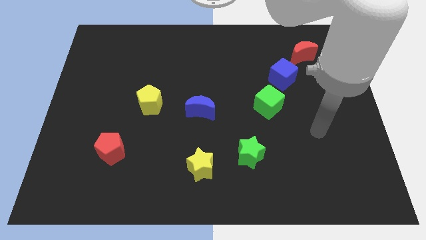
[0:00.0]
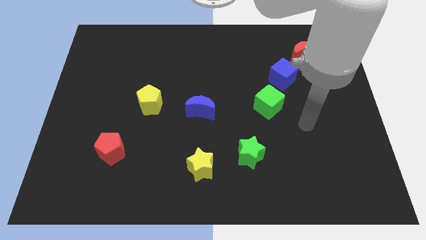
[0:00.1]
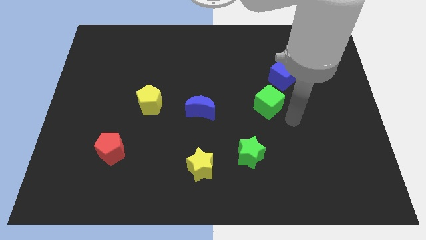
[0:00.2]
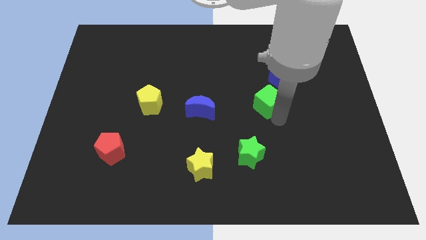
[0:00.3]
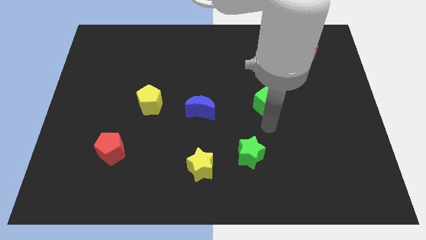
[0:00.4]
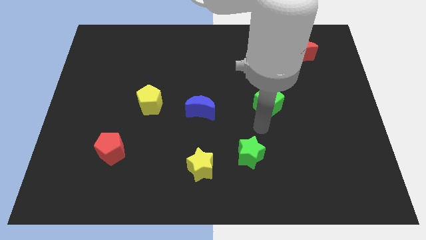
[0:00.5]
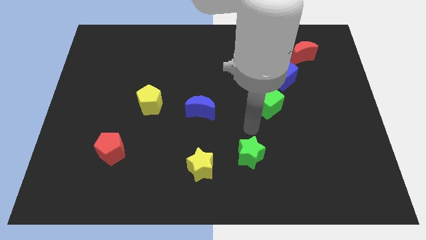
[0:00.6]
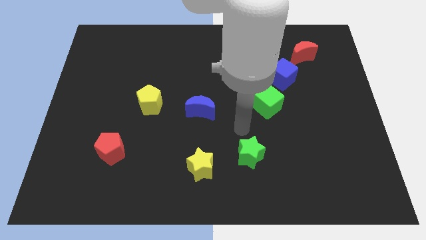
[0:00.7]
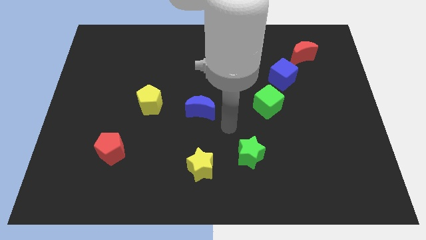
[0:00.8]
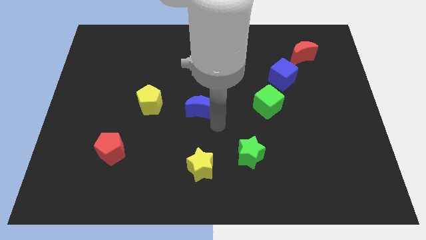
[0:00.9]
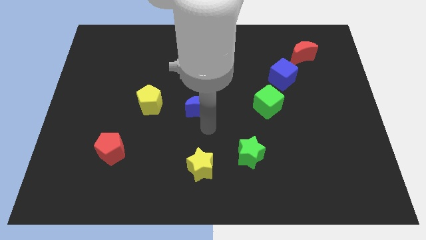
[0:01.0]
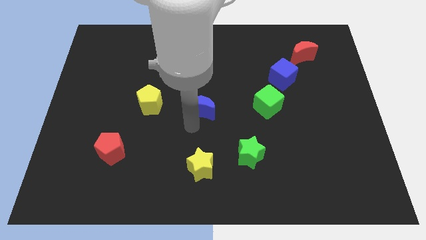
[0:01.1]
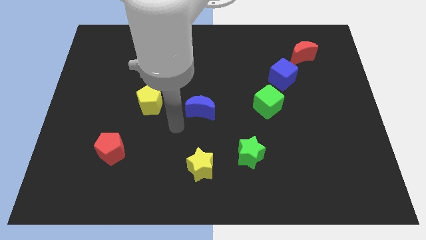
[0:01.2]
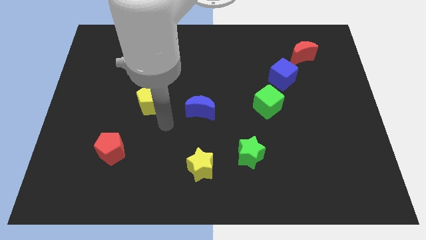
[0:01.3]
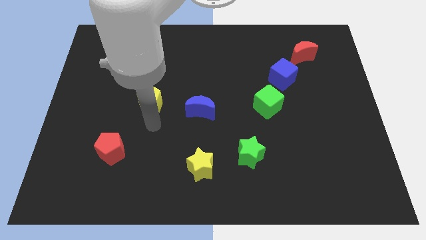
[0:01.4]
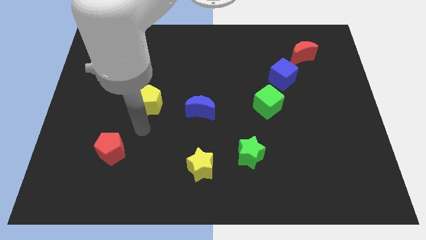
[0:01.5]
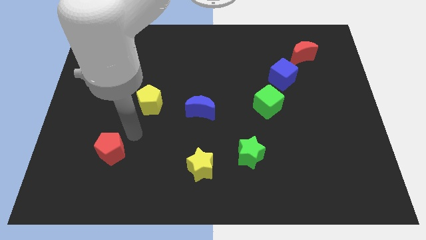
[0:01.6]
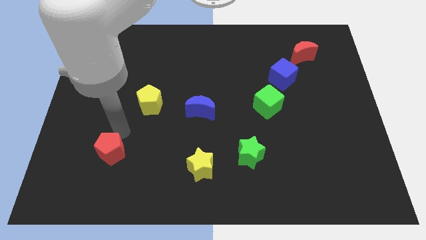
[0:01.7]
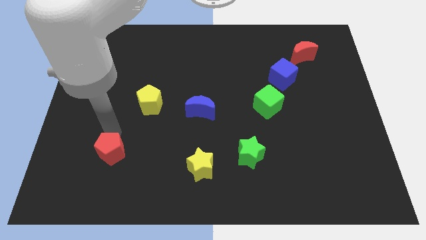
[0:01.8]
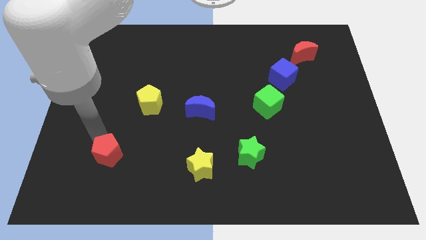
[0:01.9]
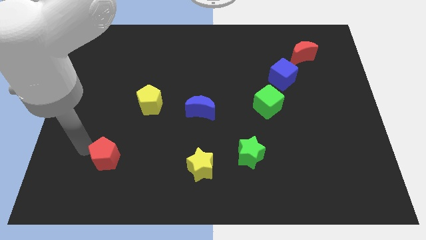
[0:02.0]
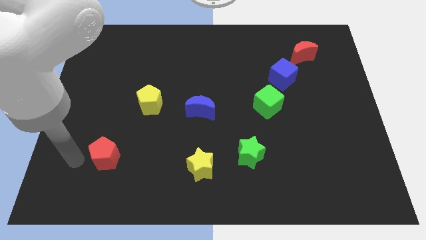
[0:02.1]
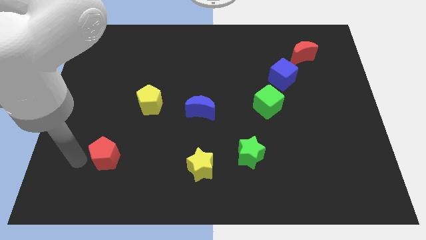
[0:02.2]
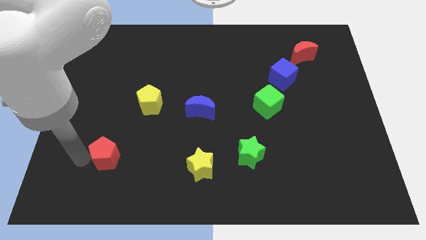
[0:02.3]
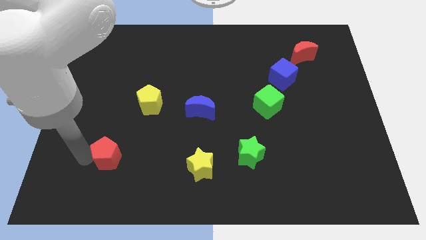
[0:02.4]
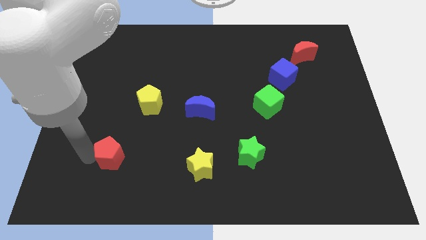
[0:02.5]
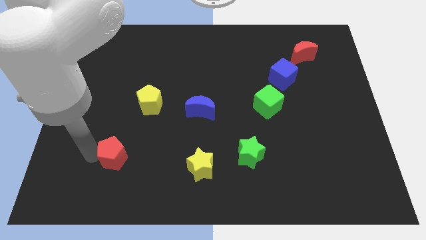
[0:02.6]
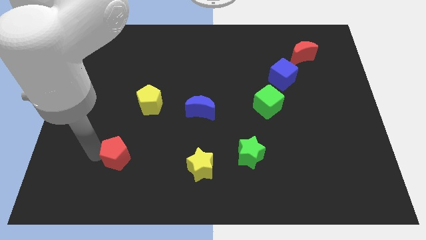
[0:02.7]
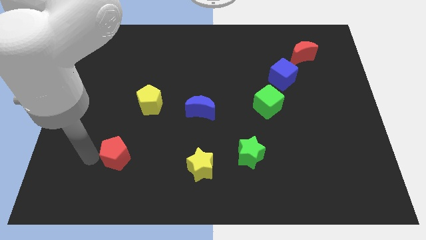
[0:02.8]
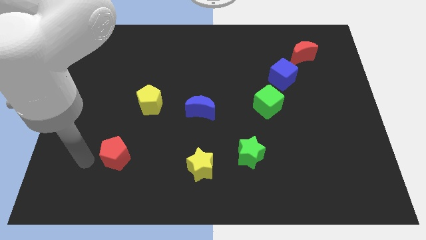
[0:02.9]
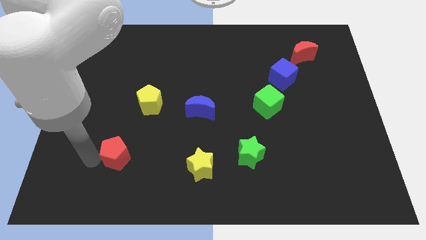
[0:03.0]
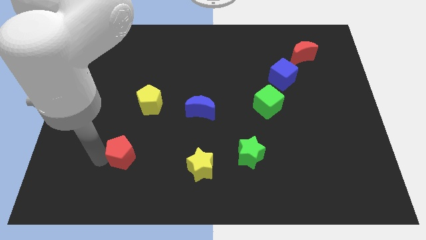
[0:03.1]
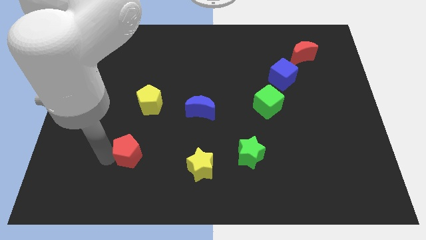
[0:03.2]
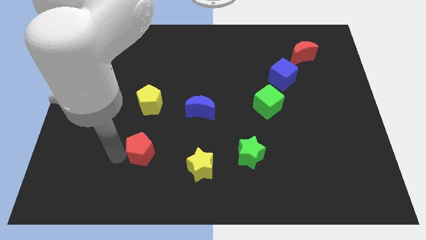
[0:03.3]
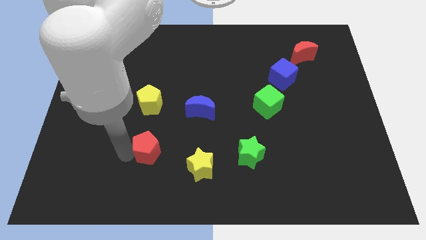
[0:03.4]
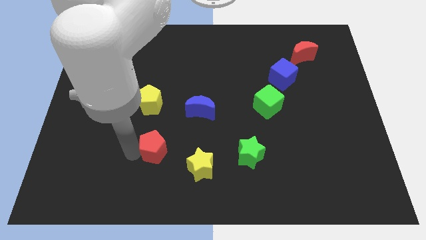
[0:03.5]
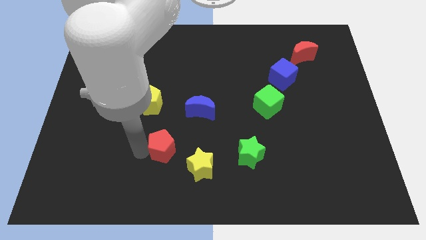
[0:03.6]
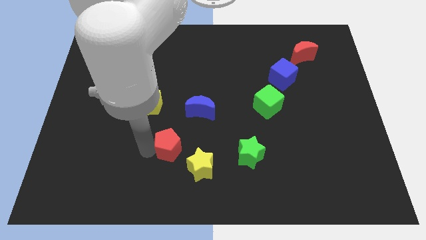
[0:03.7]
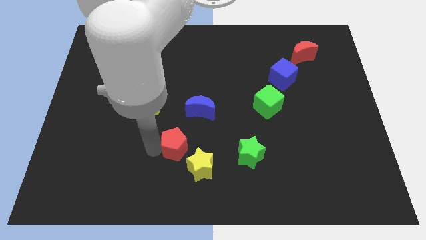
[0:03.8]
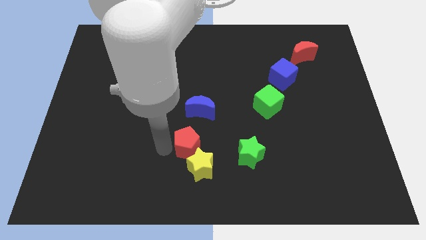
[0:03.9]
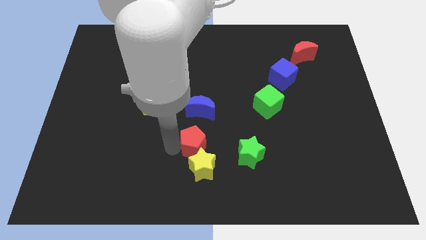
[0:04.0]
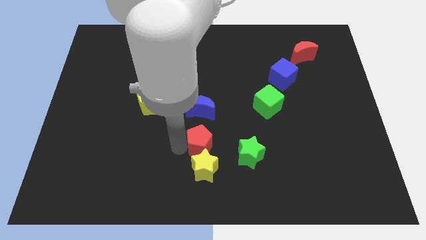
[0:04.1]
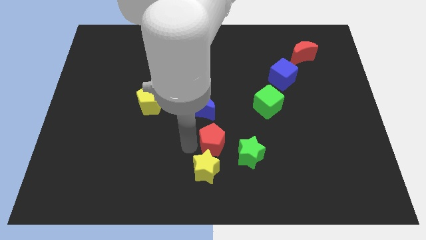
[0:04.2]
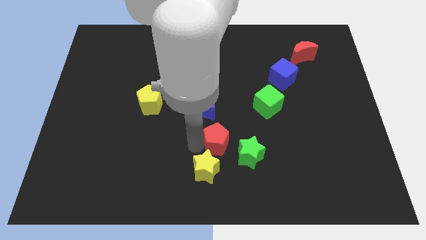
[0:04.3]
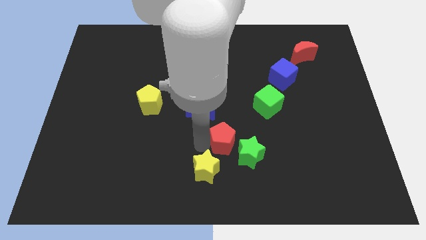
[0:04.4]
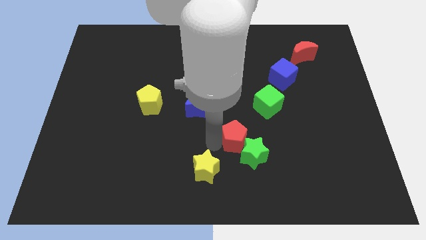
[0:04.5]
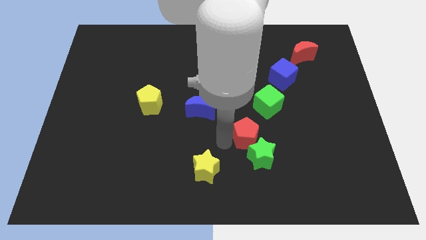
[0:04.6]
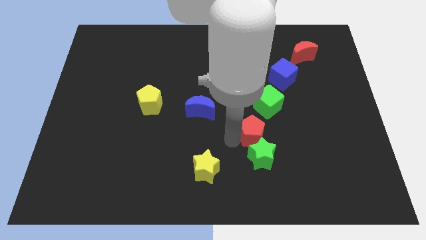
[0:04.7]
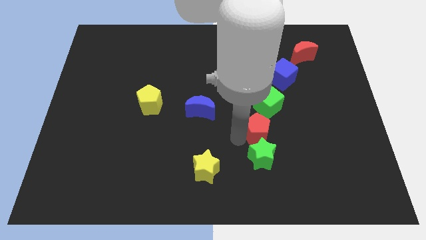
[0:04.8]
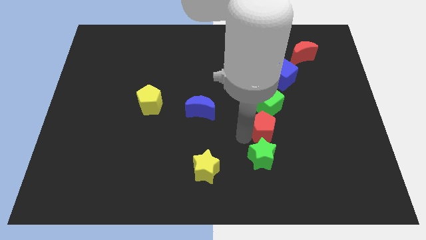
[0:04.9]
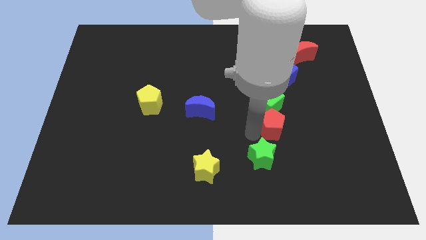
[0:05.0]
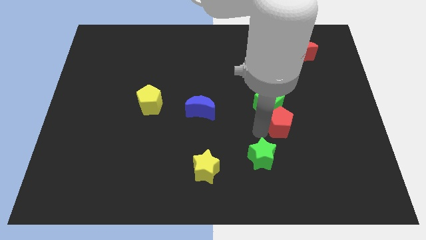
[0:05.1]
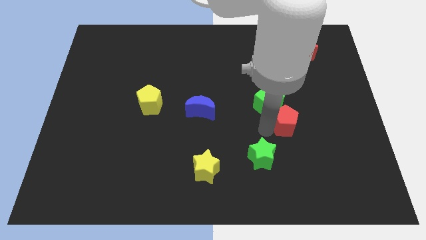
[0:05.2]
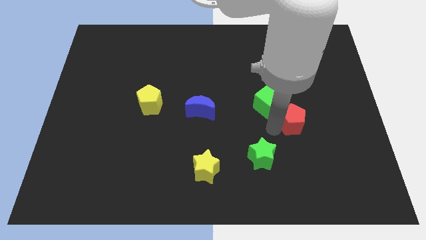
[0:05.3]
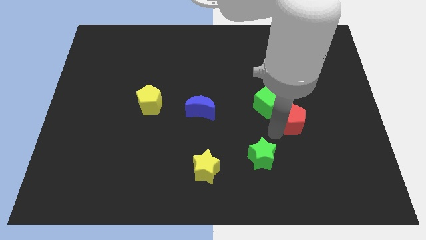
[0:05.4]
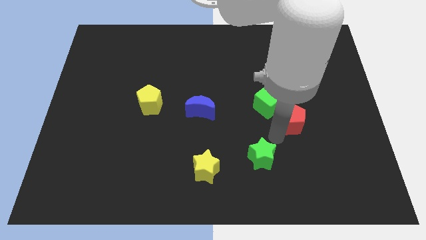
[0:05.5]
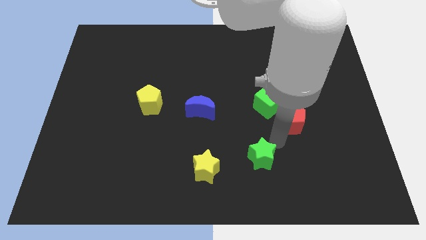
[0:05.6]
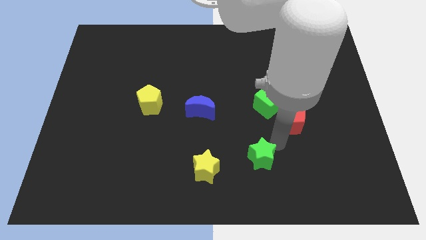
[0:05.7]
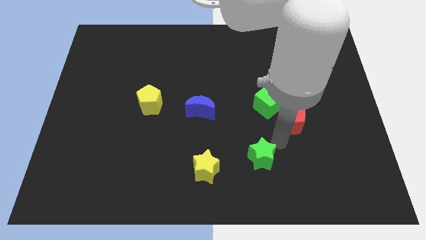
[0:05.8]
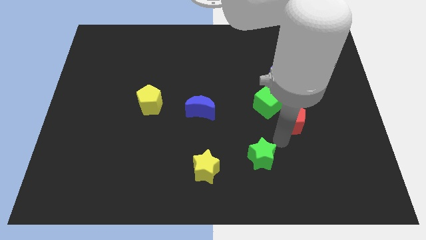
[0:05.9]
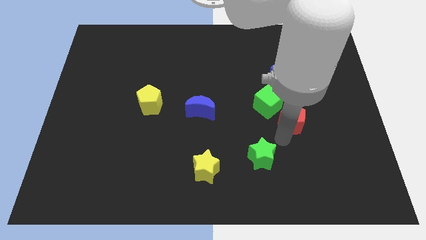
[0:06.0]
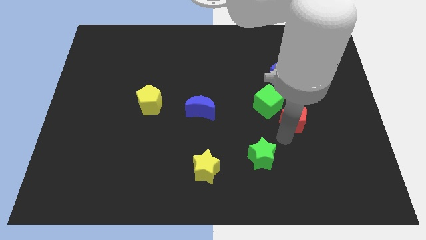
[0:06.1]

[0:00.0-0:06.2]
slide the red pentagon to the right side of the green cube

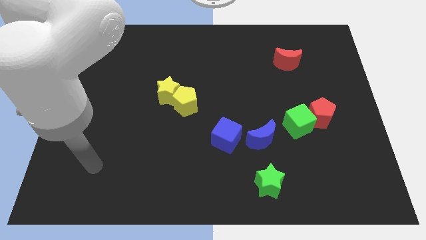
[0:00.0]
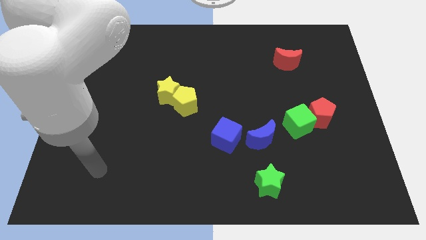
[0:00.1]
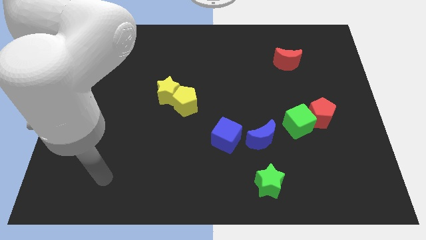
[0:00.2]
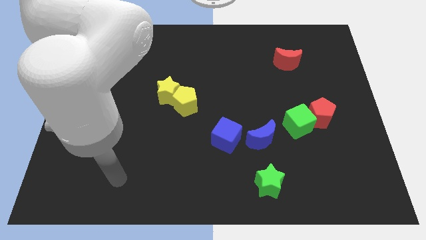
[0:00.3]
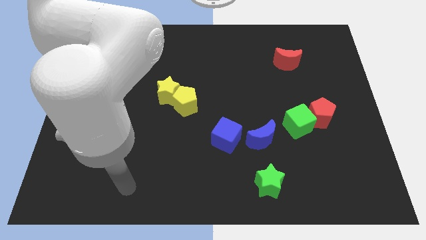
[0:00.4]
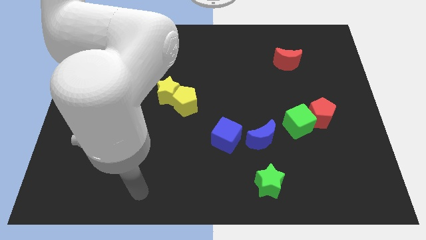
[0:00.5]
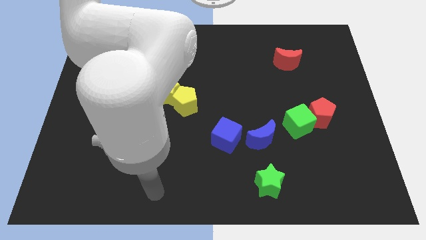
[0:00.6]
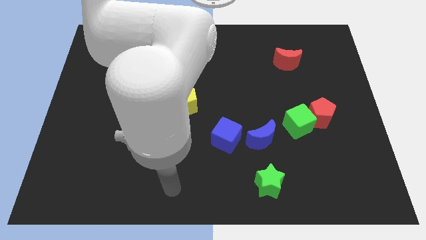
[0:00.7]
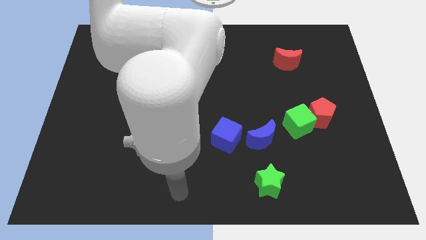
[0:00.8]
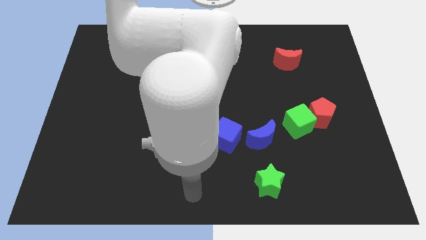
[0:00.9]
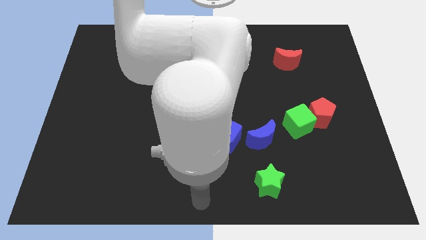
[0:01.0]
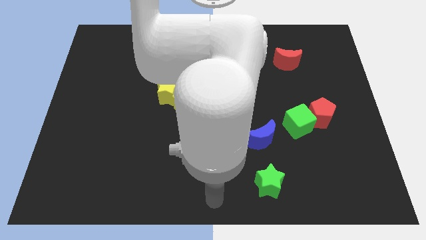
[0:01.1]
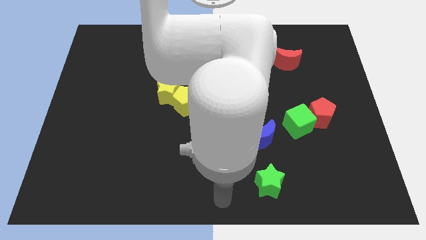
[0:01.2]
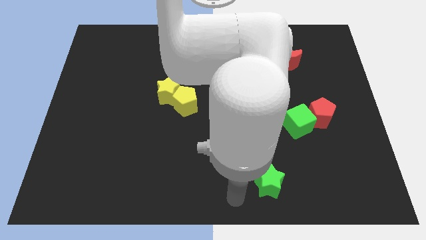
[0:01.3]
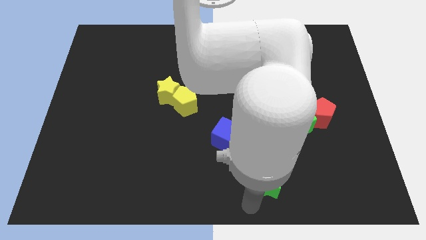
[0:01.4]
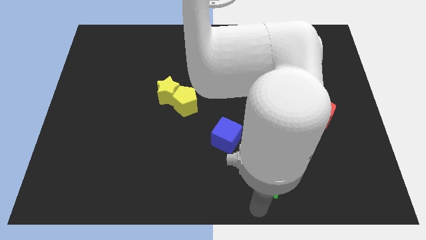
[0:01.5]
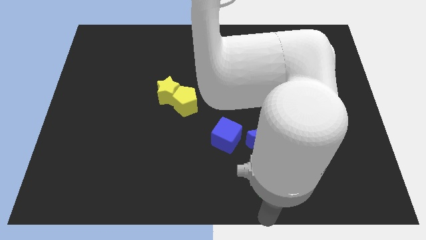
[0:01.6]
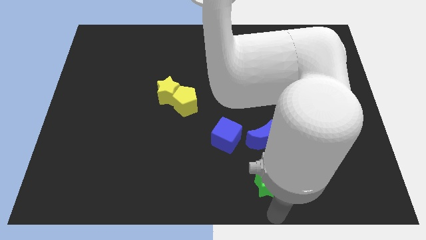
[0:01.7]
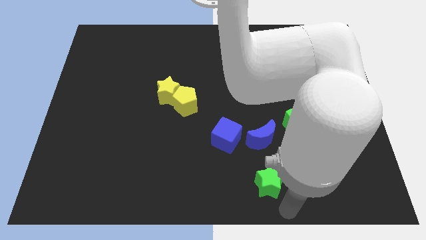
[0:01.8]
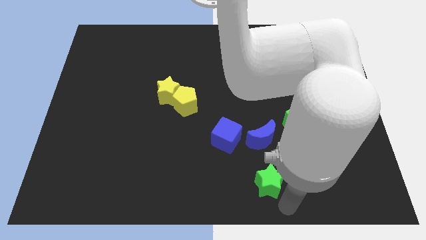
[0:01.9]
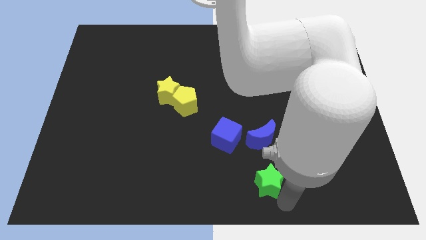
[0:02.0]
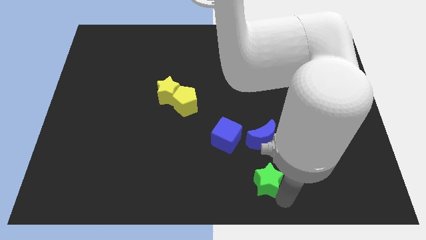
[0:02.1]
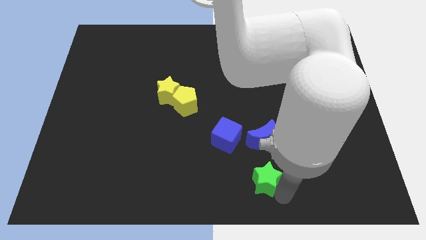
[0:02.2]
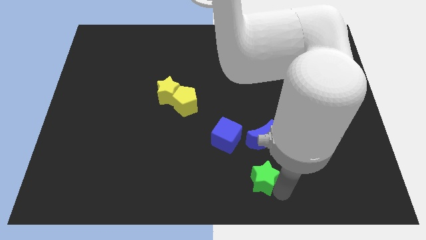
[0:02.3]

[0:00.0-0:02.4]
slide the green star to the bottom right side of the blue cube
